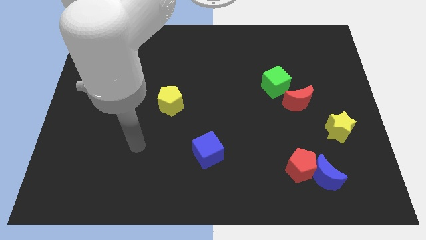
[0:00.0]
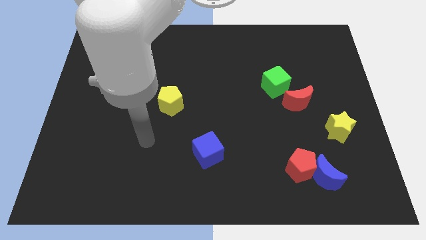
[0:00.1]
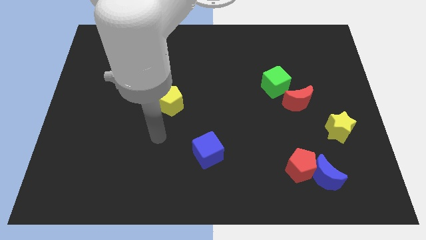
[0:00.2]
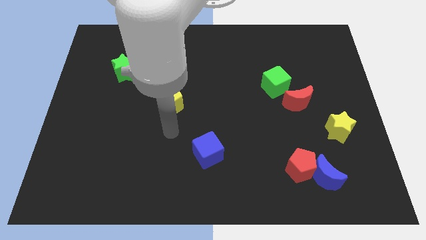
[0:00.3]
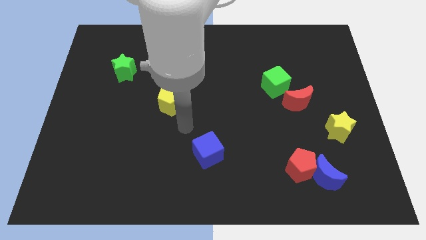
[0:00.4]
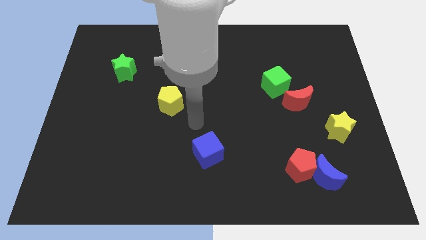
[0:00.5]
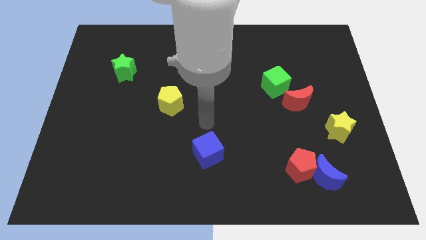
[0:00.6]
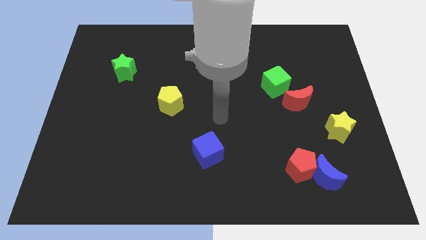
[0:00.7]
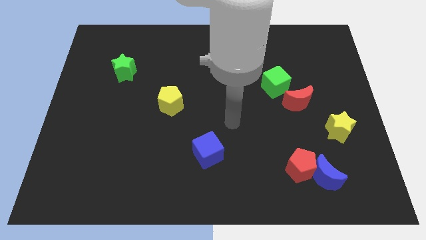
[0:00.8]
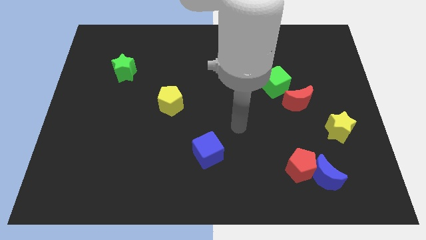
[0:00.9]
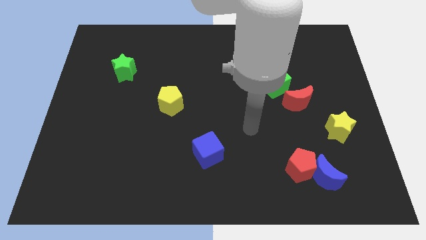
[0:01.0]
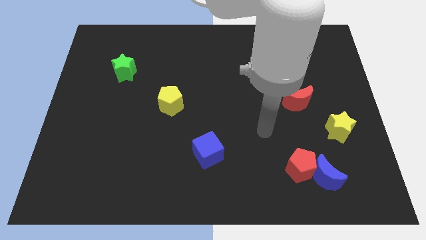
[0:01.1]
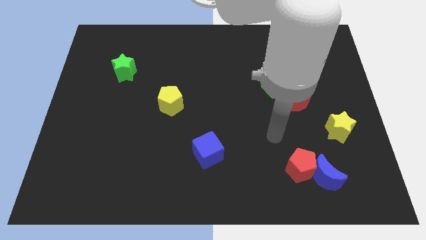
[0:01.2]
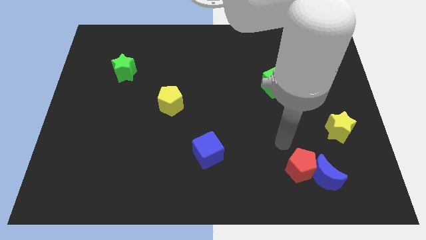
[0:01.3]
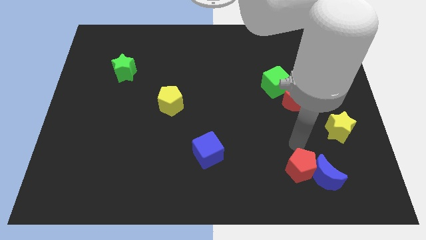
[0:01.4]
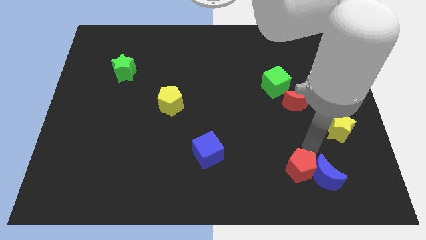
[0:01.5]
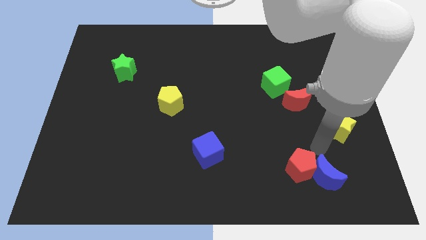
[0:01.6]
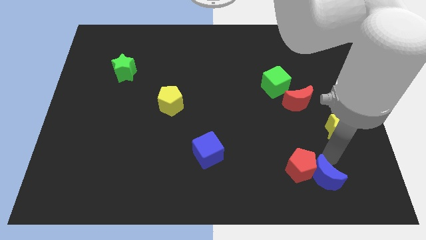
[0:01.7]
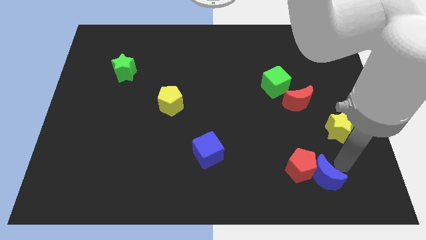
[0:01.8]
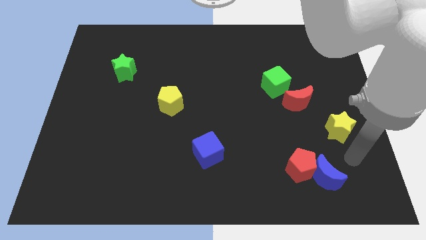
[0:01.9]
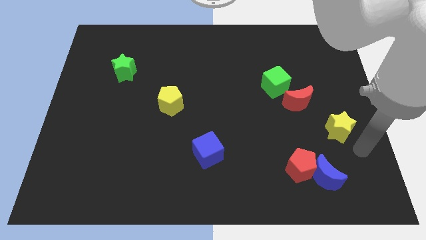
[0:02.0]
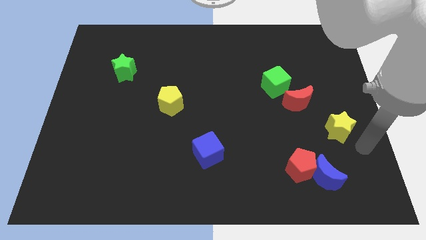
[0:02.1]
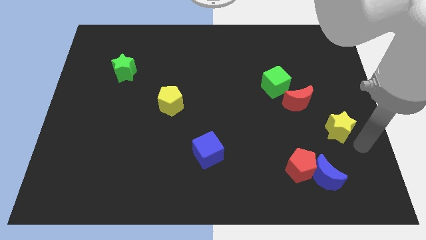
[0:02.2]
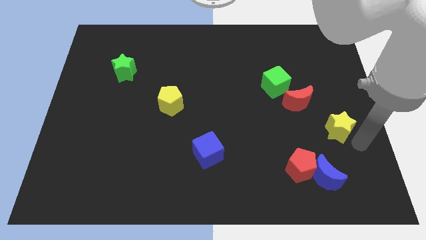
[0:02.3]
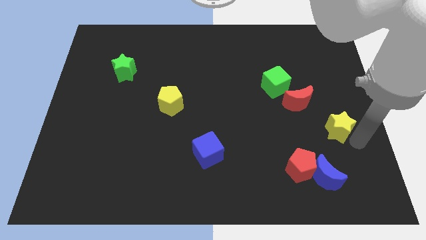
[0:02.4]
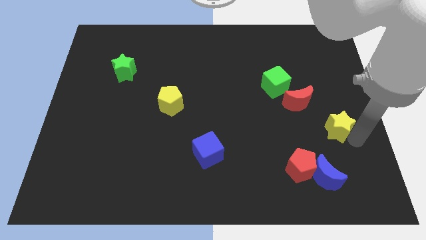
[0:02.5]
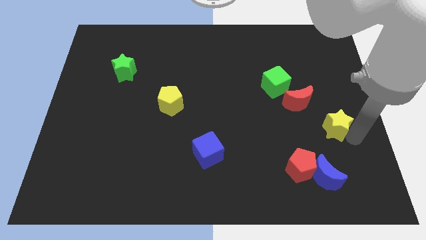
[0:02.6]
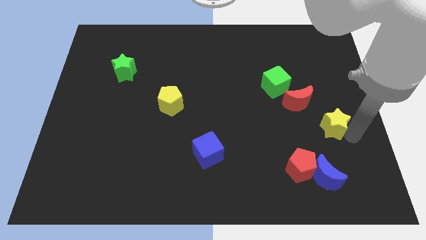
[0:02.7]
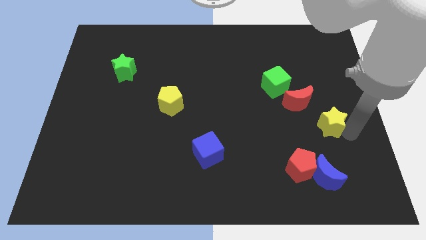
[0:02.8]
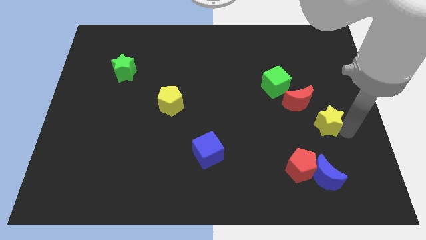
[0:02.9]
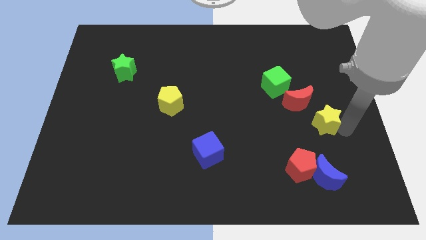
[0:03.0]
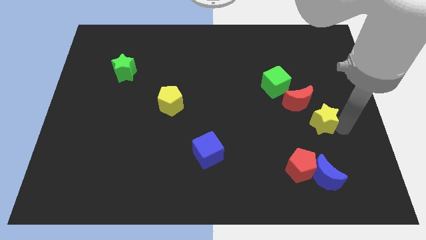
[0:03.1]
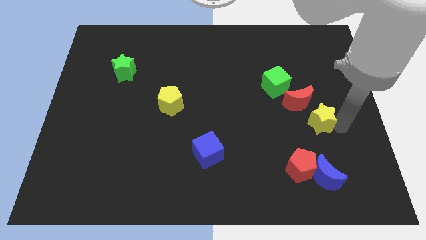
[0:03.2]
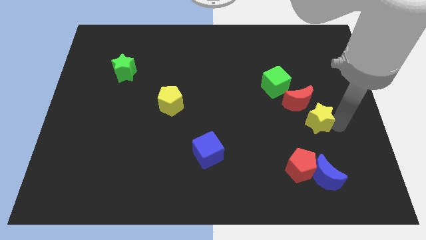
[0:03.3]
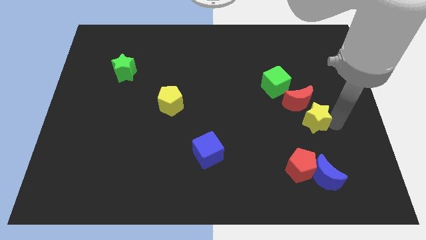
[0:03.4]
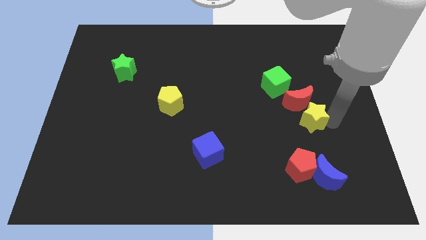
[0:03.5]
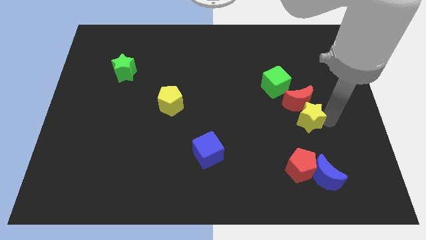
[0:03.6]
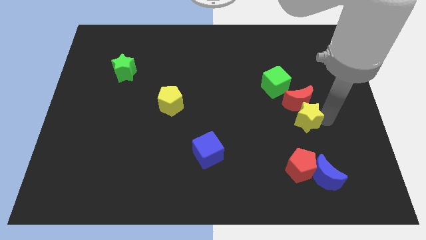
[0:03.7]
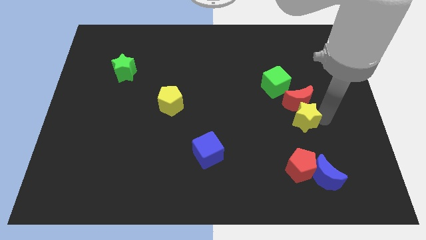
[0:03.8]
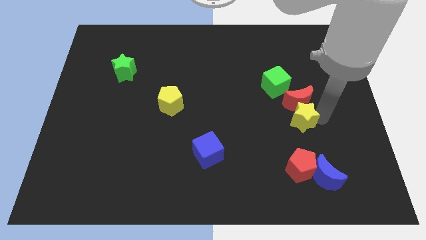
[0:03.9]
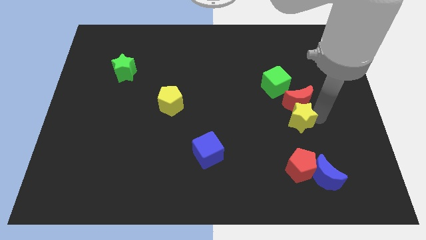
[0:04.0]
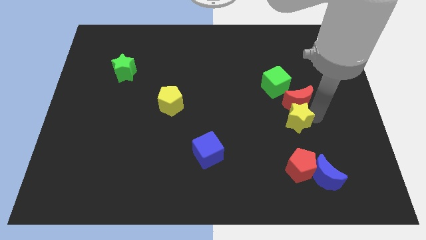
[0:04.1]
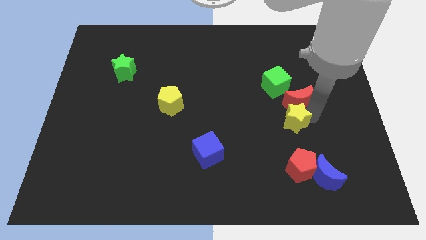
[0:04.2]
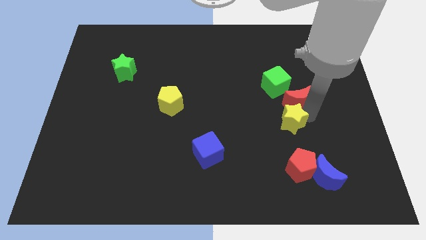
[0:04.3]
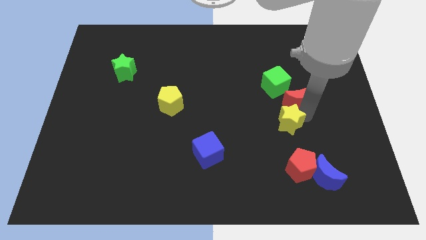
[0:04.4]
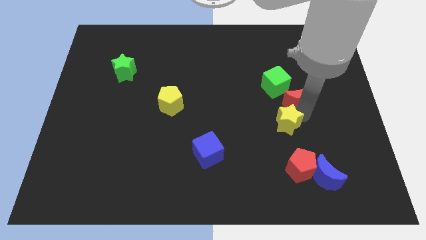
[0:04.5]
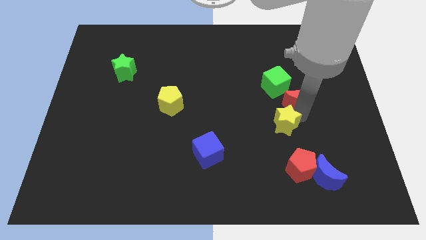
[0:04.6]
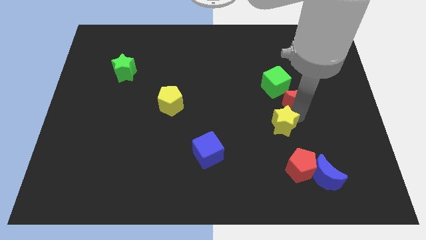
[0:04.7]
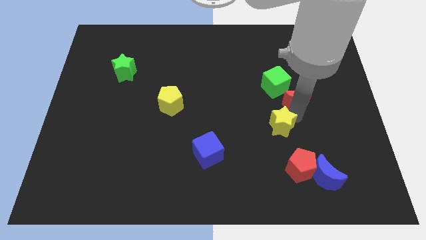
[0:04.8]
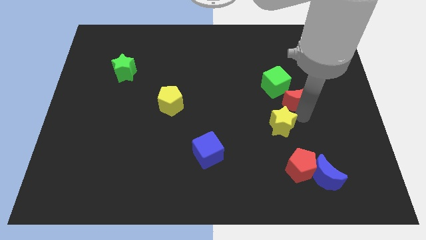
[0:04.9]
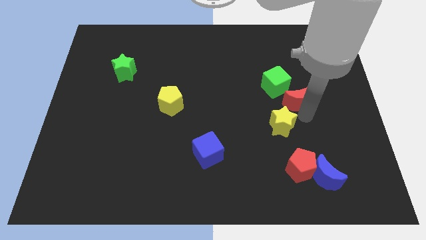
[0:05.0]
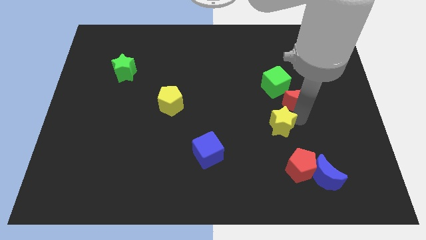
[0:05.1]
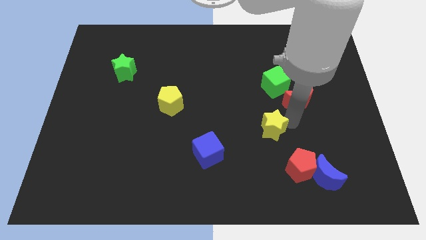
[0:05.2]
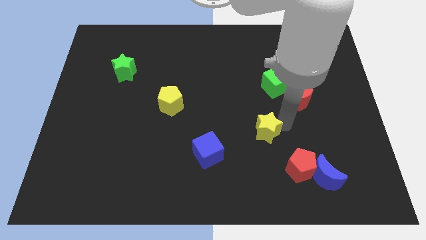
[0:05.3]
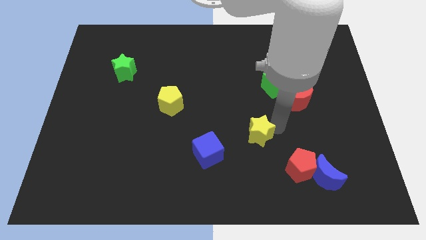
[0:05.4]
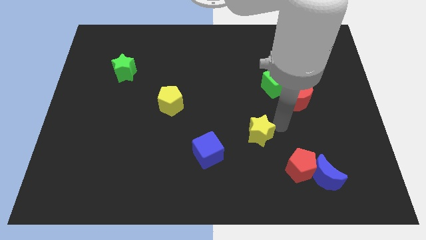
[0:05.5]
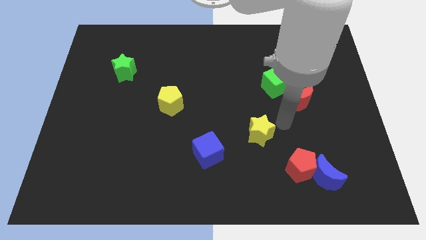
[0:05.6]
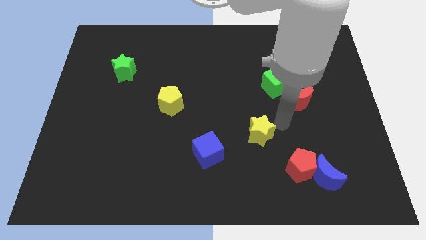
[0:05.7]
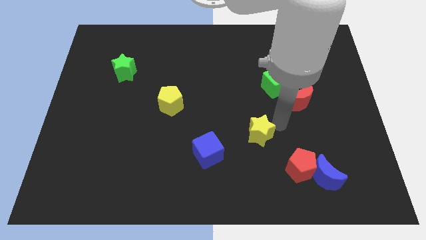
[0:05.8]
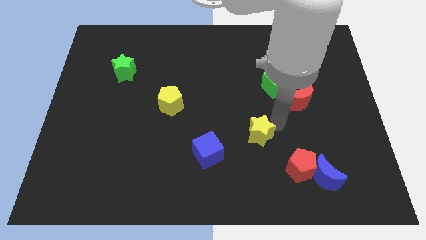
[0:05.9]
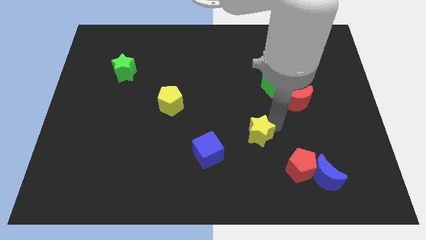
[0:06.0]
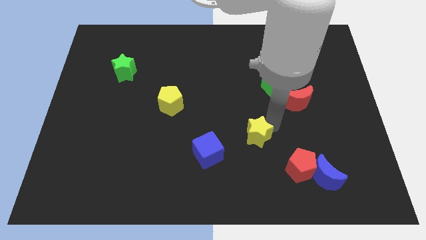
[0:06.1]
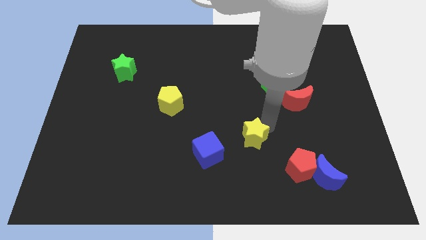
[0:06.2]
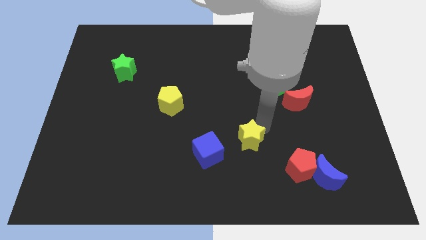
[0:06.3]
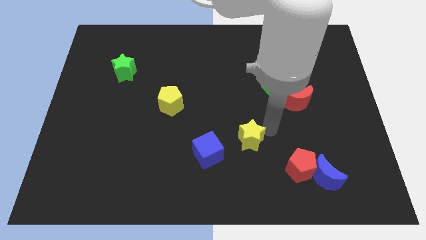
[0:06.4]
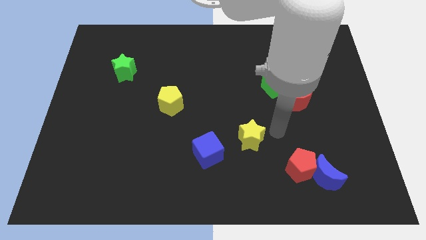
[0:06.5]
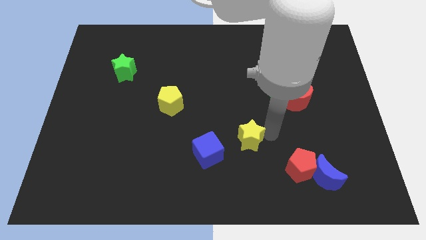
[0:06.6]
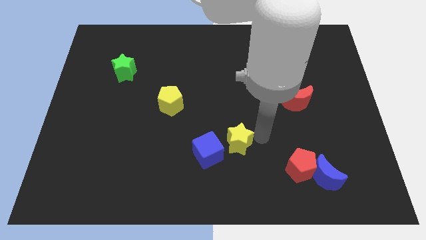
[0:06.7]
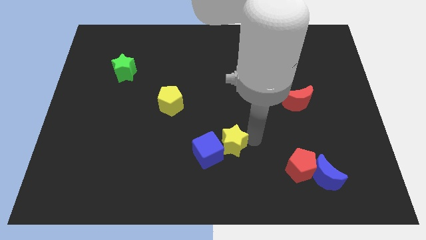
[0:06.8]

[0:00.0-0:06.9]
move the yellow star towards the blue cube
